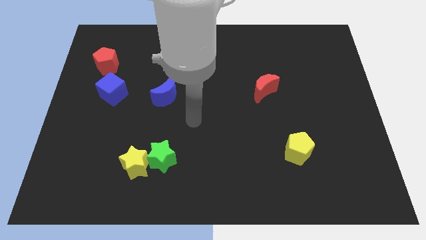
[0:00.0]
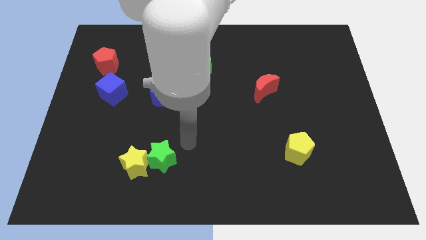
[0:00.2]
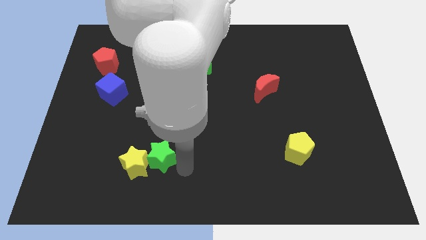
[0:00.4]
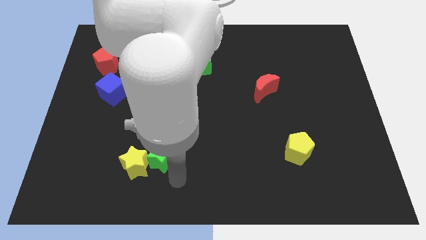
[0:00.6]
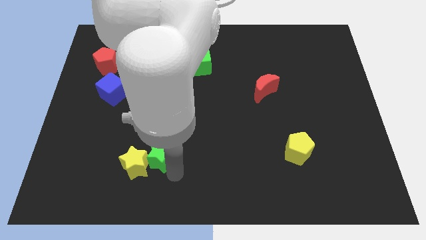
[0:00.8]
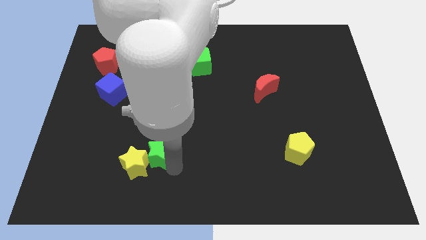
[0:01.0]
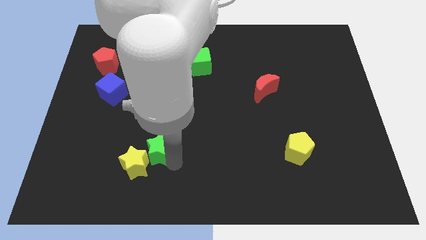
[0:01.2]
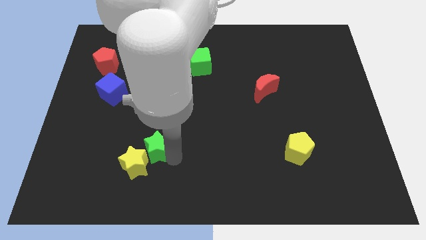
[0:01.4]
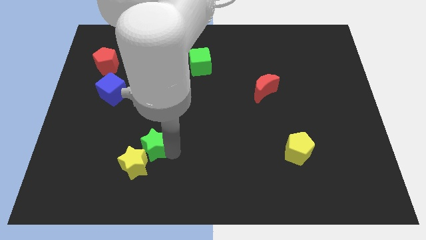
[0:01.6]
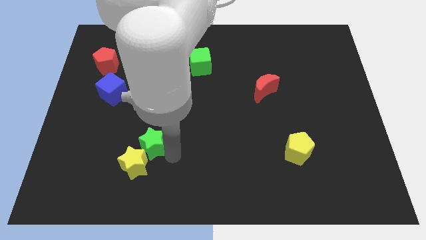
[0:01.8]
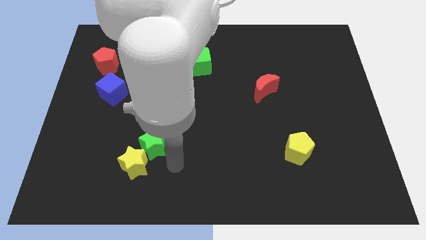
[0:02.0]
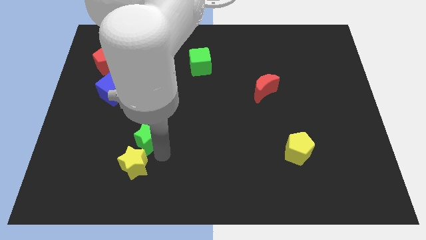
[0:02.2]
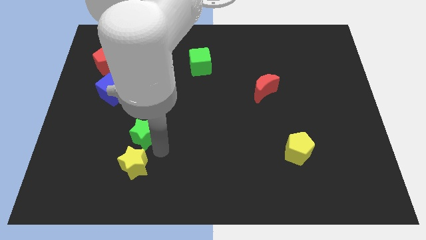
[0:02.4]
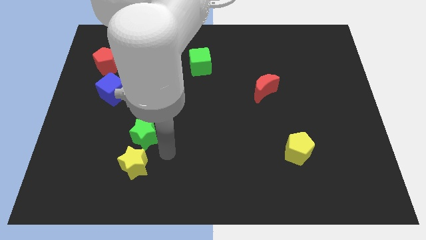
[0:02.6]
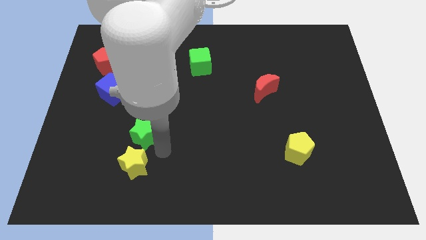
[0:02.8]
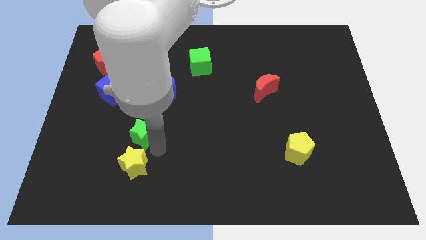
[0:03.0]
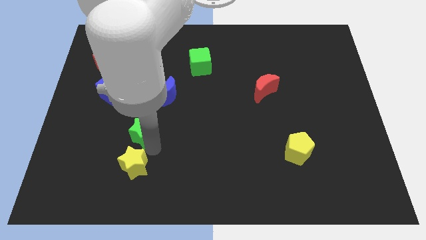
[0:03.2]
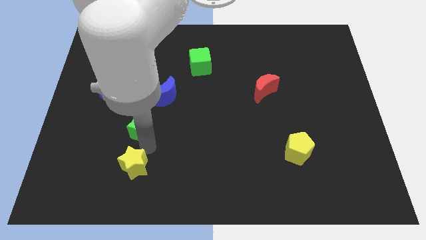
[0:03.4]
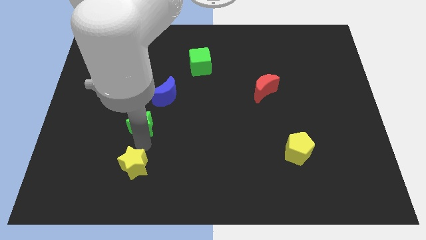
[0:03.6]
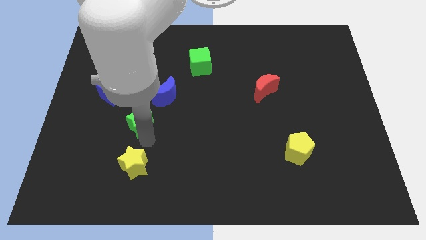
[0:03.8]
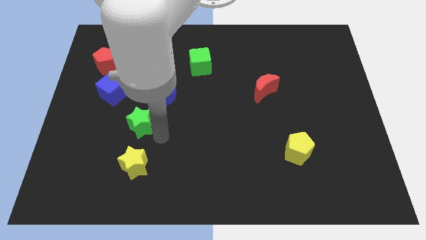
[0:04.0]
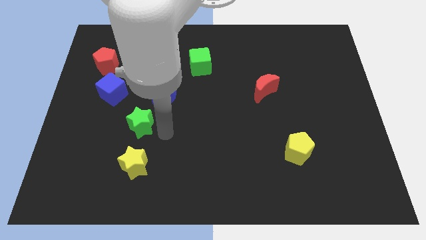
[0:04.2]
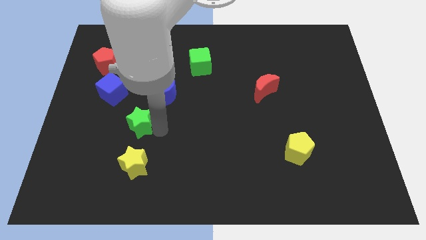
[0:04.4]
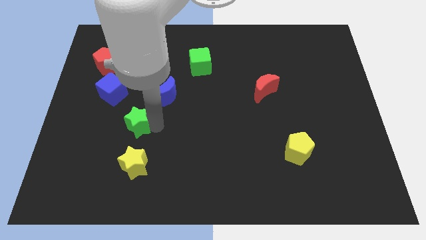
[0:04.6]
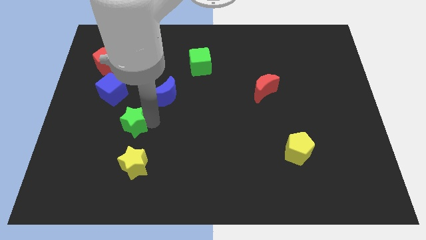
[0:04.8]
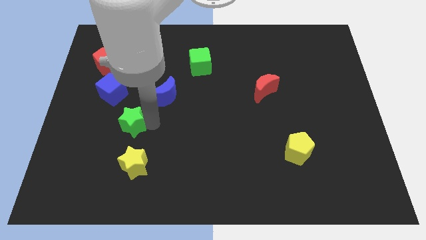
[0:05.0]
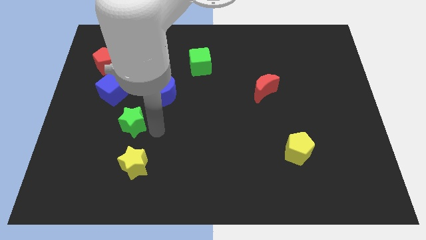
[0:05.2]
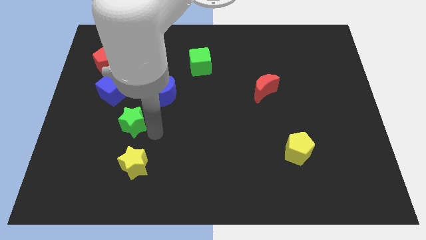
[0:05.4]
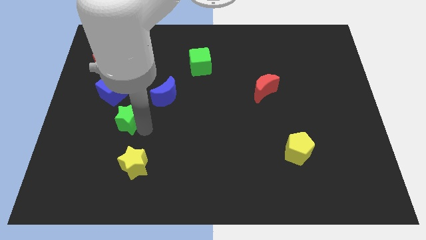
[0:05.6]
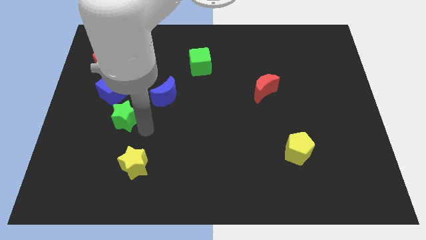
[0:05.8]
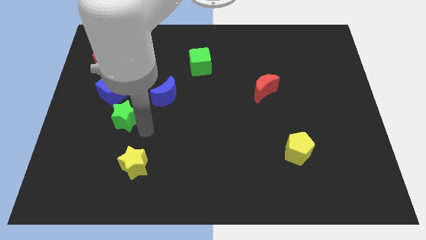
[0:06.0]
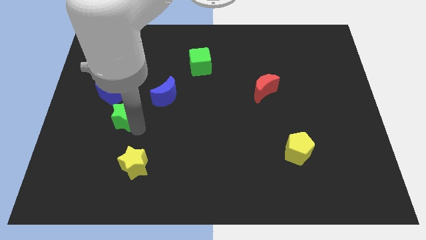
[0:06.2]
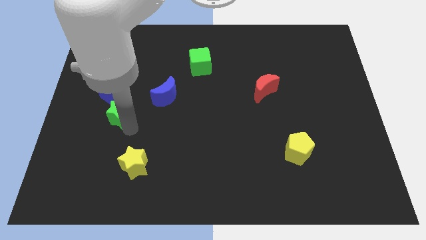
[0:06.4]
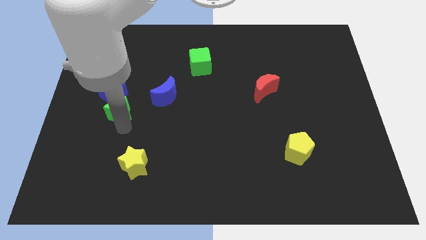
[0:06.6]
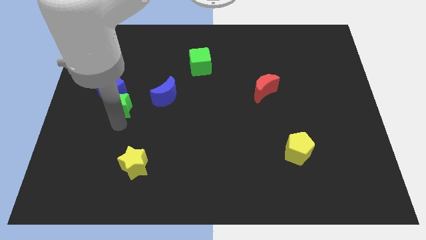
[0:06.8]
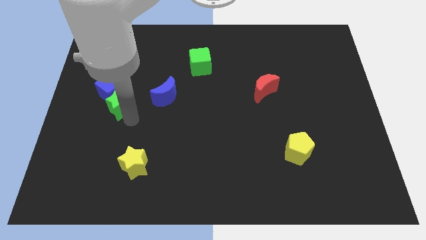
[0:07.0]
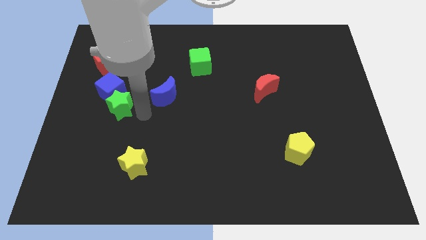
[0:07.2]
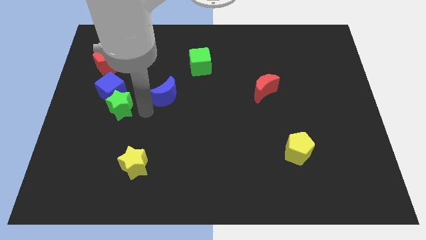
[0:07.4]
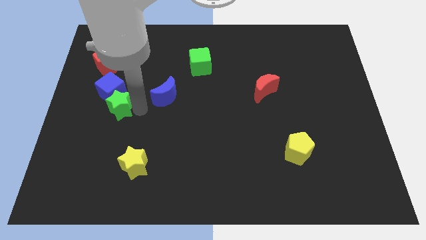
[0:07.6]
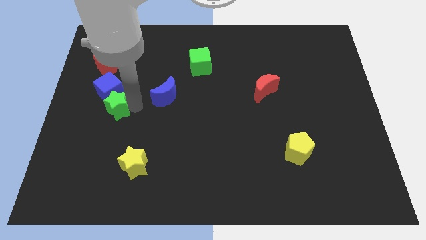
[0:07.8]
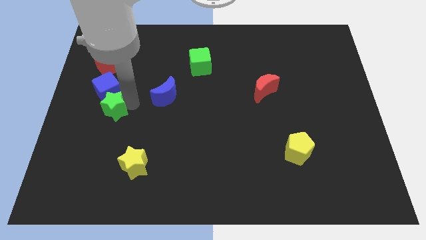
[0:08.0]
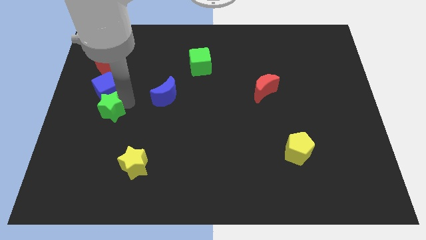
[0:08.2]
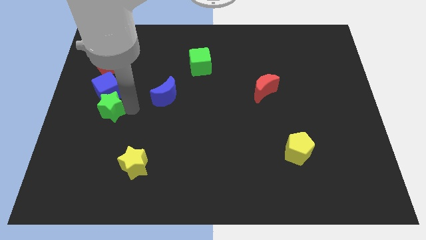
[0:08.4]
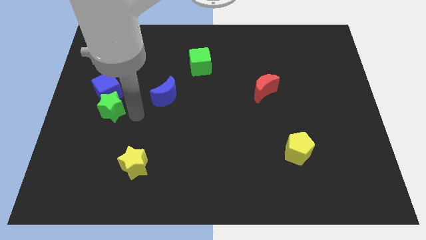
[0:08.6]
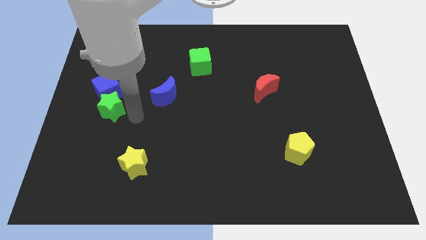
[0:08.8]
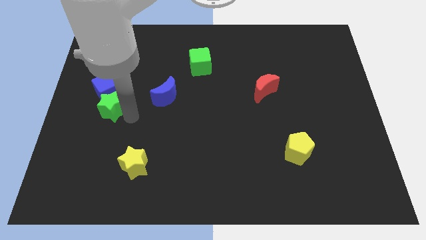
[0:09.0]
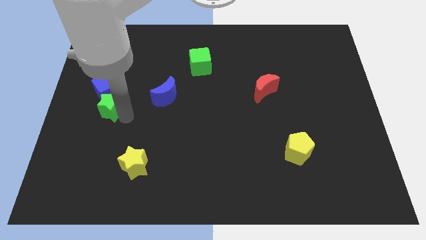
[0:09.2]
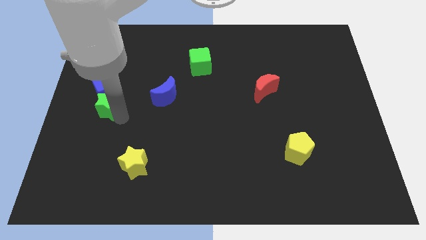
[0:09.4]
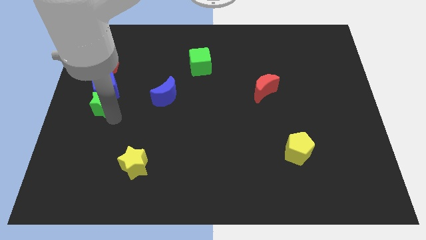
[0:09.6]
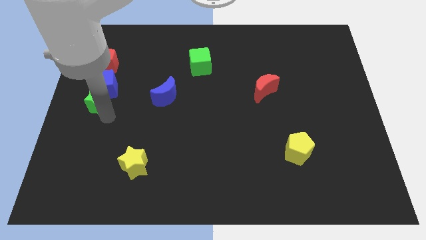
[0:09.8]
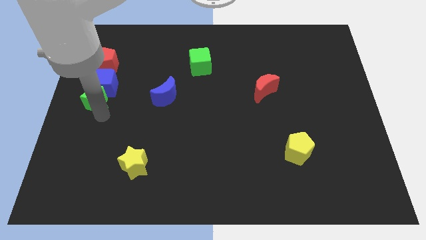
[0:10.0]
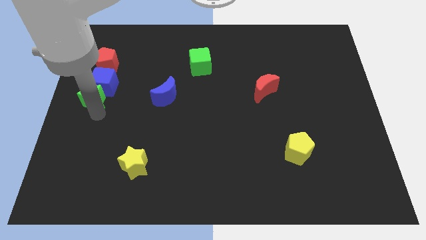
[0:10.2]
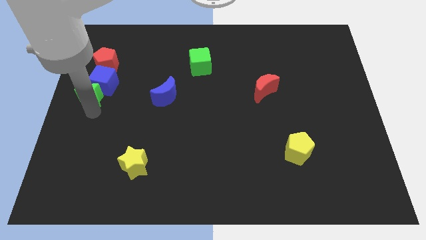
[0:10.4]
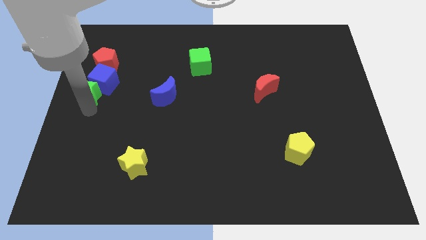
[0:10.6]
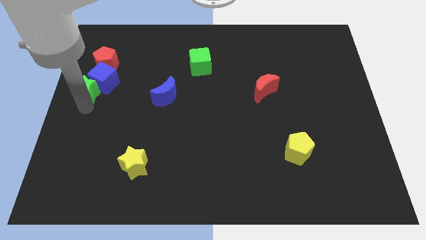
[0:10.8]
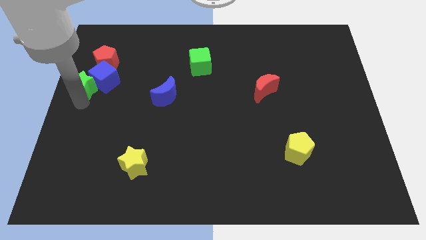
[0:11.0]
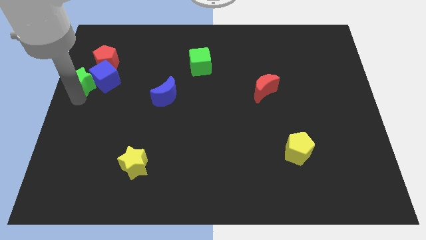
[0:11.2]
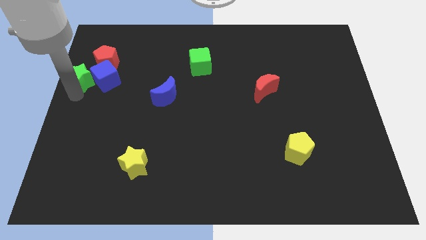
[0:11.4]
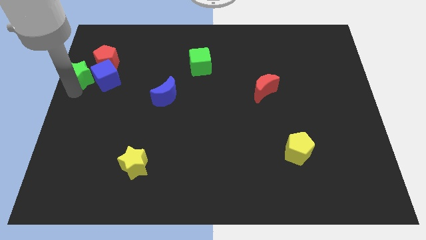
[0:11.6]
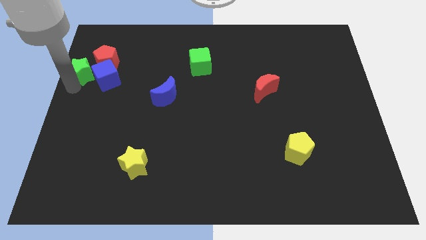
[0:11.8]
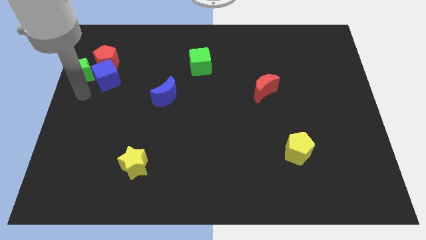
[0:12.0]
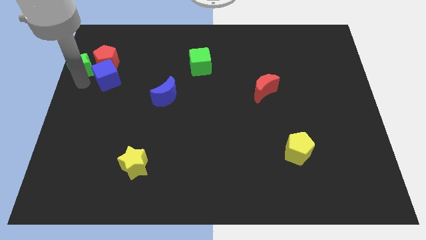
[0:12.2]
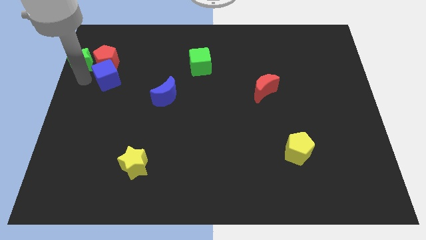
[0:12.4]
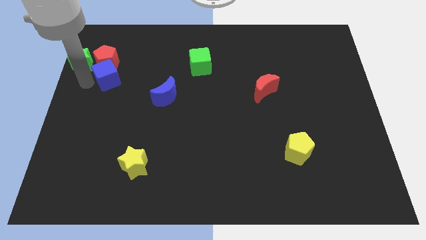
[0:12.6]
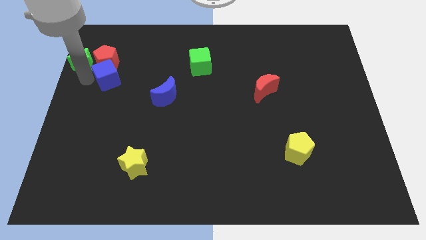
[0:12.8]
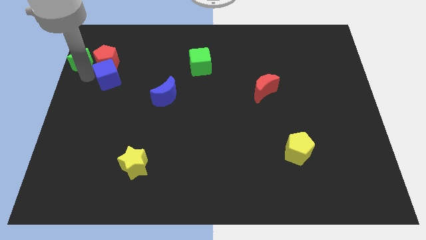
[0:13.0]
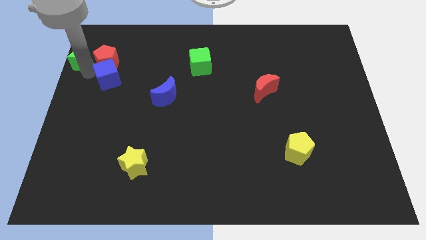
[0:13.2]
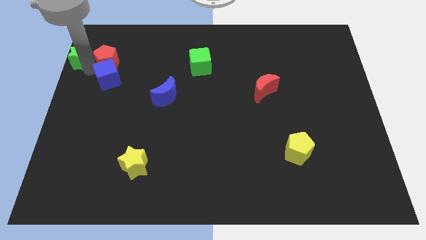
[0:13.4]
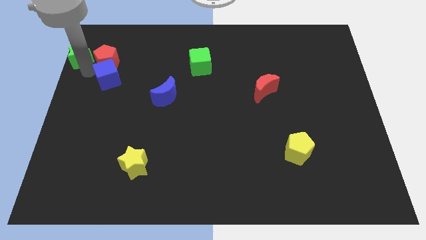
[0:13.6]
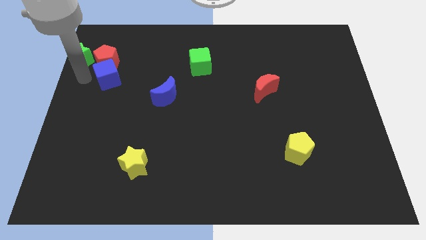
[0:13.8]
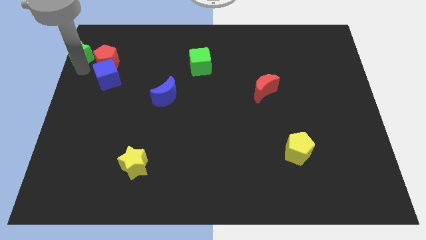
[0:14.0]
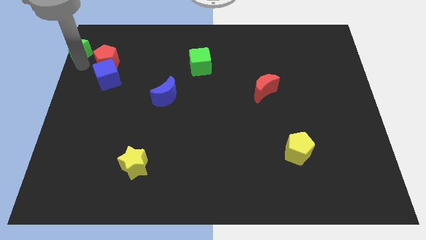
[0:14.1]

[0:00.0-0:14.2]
put the green star to the top left corner
